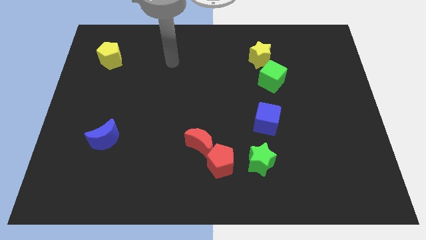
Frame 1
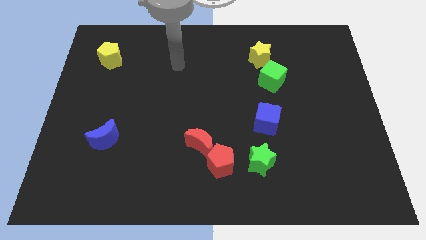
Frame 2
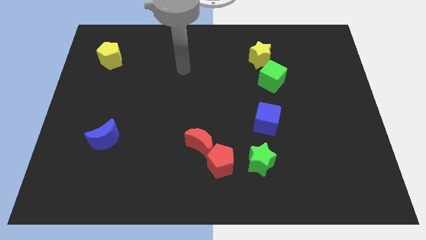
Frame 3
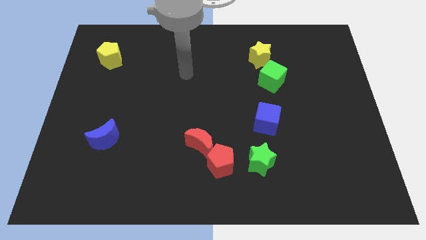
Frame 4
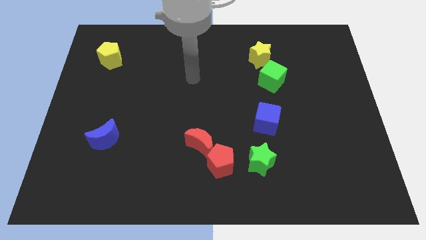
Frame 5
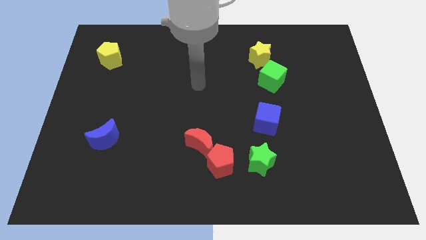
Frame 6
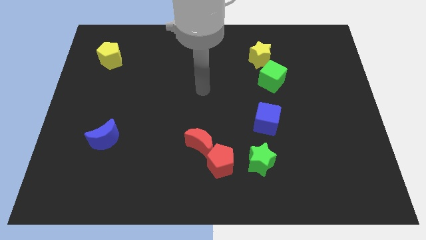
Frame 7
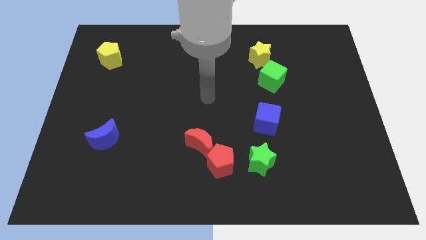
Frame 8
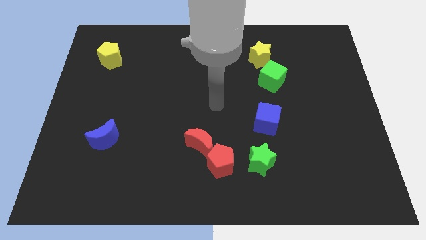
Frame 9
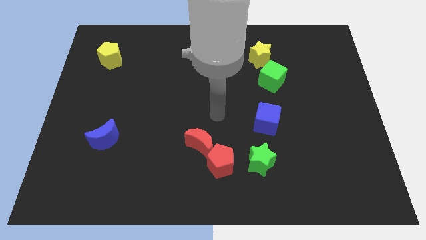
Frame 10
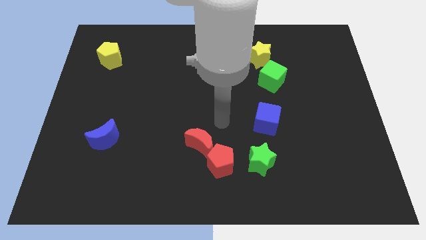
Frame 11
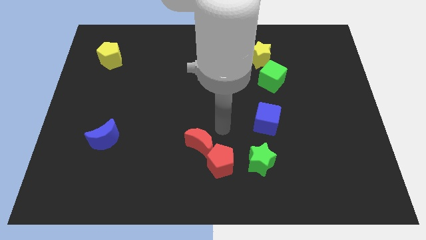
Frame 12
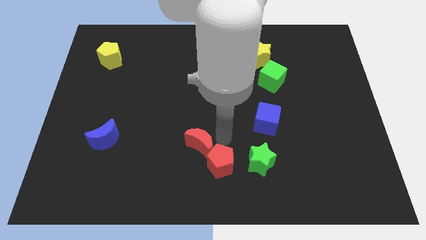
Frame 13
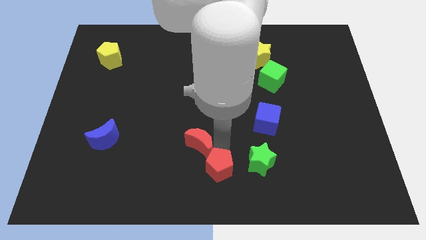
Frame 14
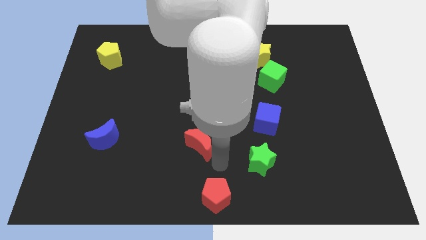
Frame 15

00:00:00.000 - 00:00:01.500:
separate the red moon from the red pentagon

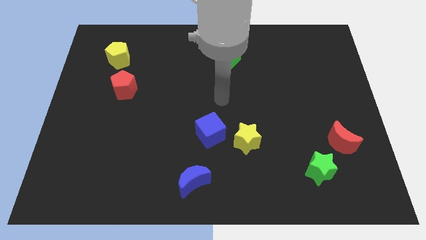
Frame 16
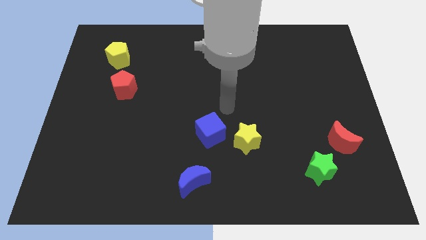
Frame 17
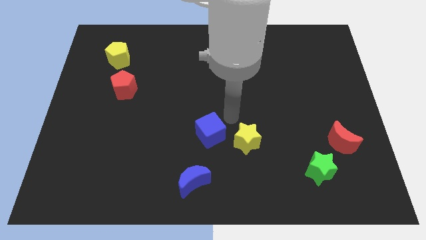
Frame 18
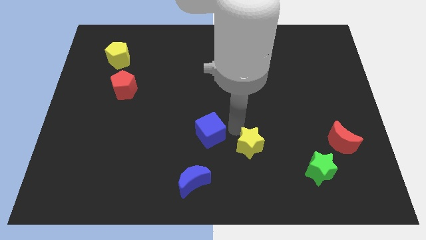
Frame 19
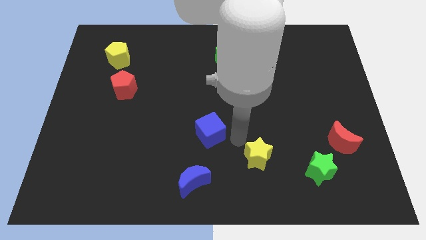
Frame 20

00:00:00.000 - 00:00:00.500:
move the blue cube away from the yellow star

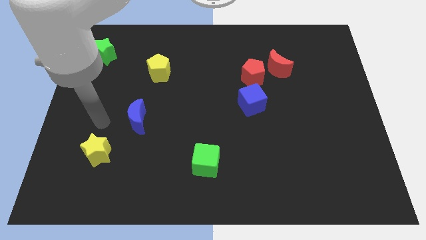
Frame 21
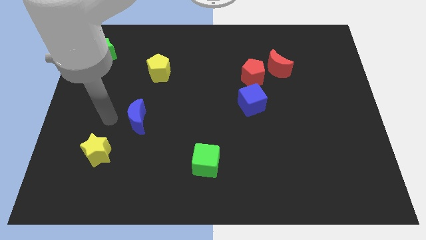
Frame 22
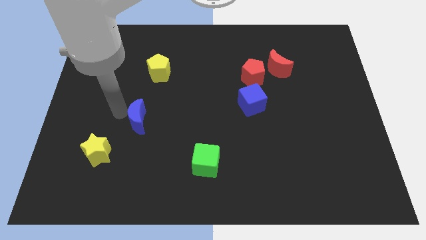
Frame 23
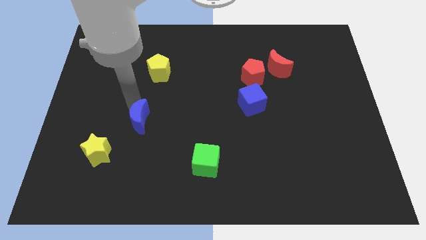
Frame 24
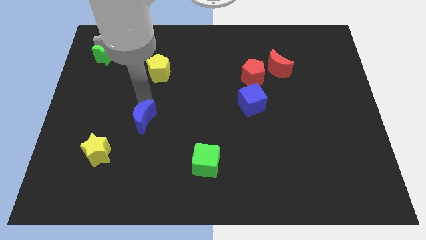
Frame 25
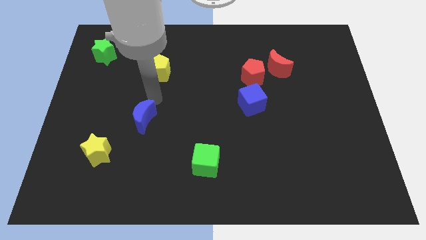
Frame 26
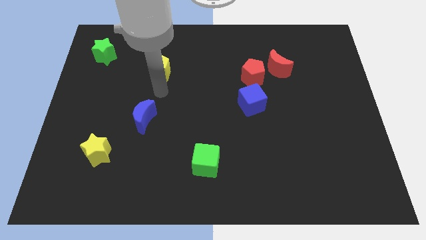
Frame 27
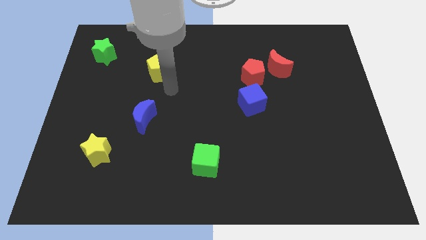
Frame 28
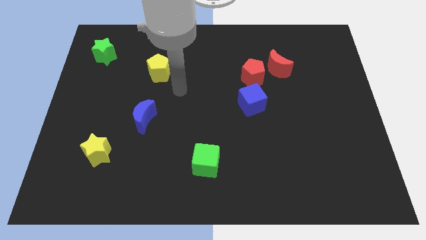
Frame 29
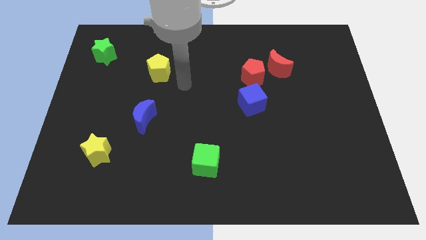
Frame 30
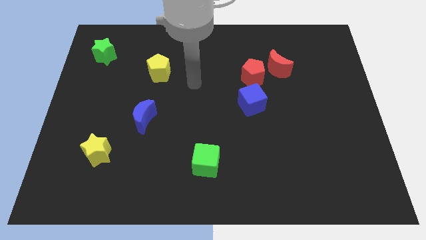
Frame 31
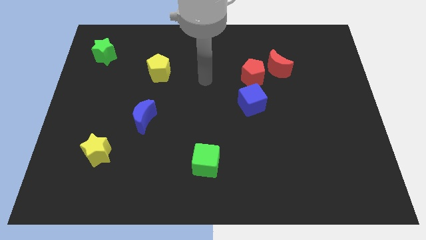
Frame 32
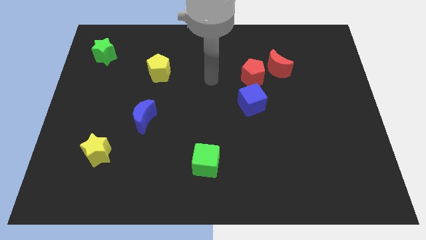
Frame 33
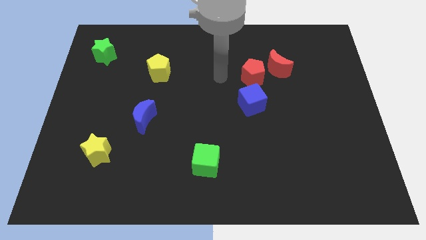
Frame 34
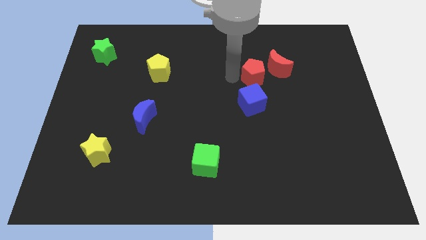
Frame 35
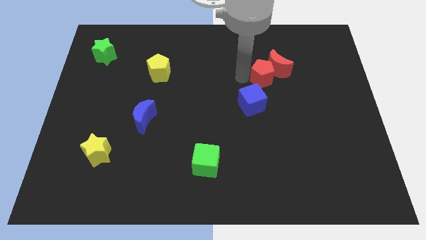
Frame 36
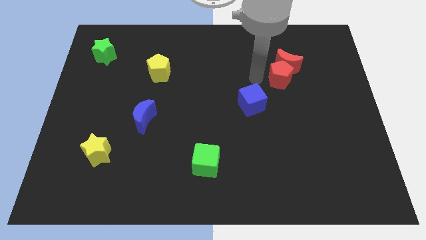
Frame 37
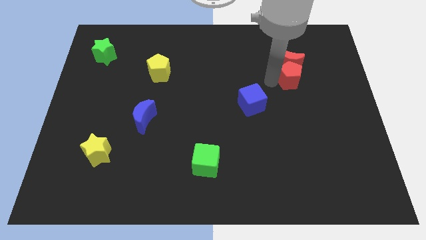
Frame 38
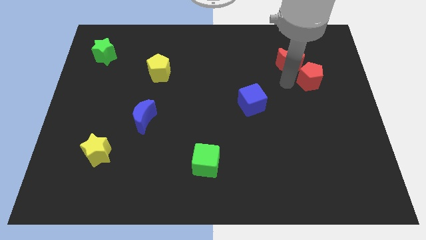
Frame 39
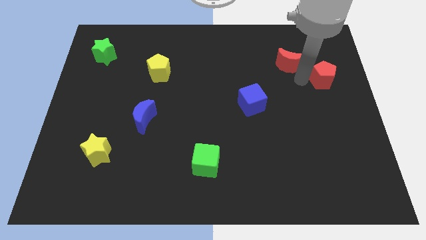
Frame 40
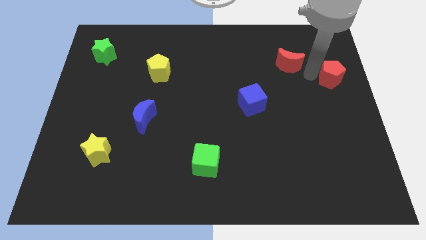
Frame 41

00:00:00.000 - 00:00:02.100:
move the red moon away from the red pentagon

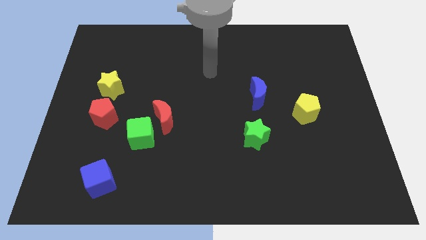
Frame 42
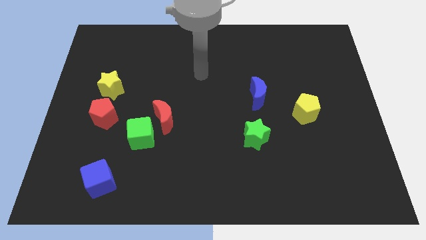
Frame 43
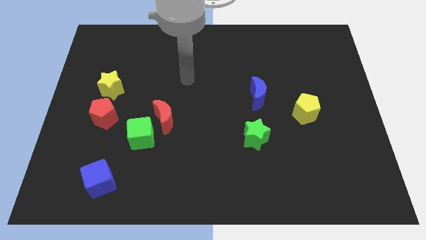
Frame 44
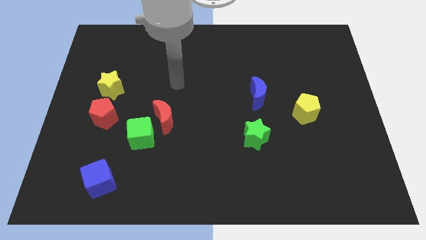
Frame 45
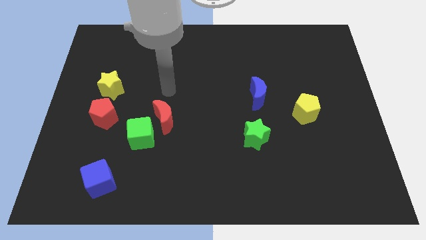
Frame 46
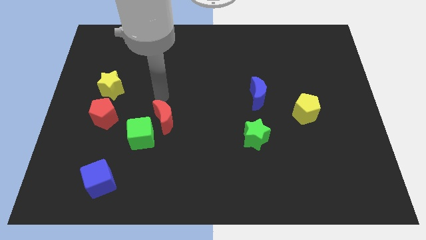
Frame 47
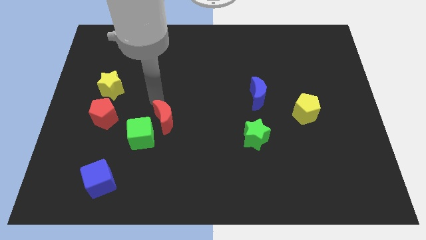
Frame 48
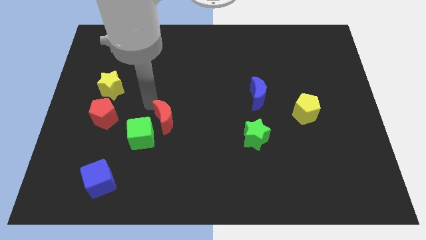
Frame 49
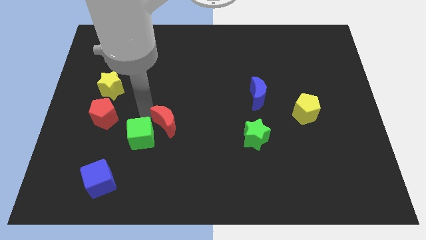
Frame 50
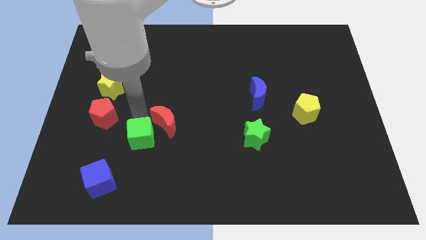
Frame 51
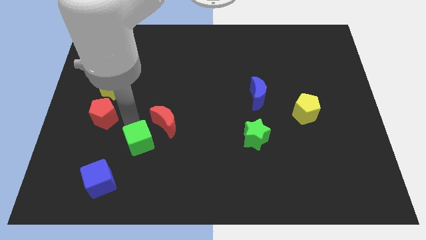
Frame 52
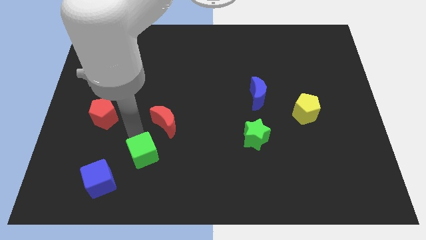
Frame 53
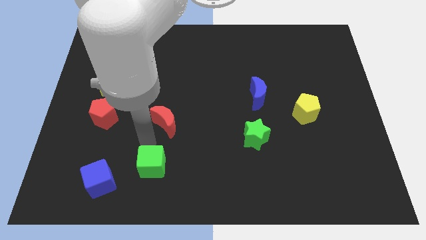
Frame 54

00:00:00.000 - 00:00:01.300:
pull the red moon apart from the green cube

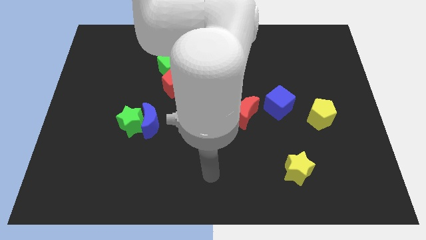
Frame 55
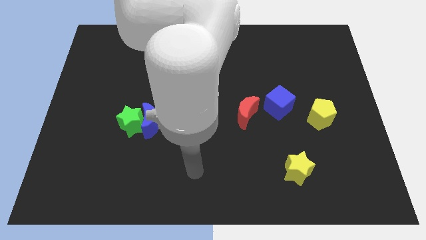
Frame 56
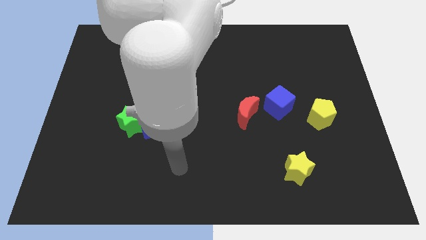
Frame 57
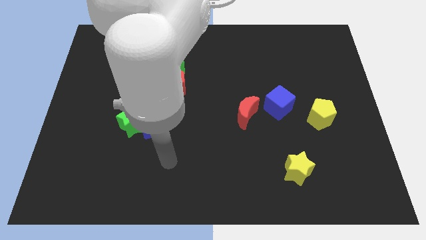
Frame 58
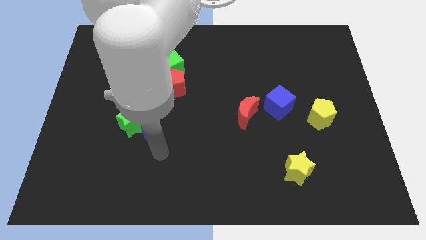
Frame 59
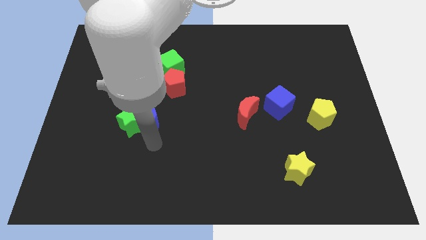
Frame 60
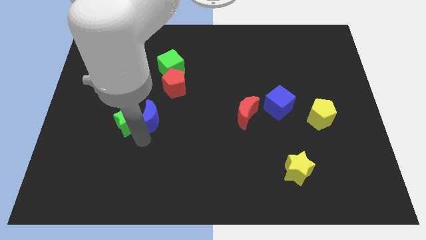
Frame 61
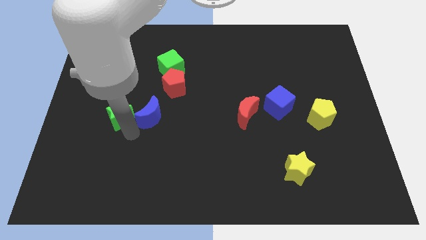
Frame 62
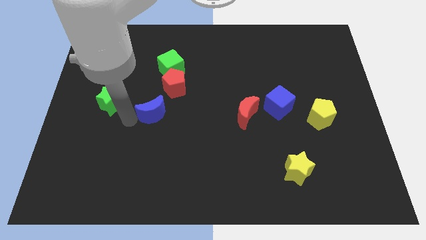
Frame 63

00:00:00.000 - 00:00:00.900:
separate the blue moon from the green star

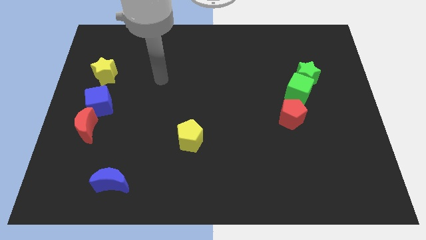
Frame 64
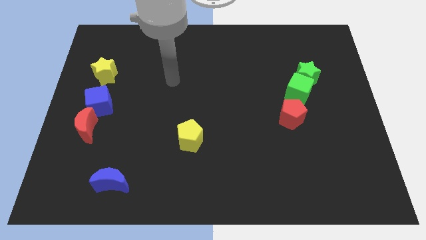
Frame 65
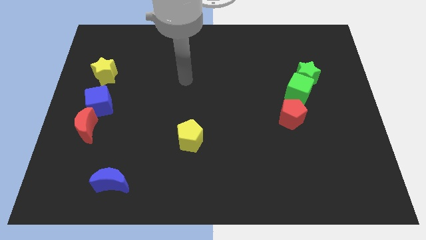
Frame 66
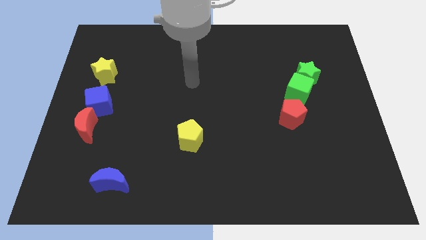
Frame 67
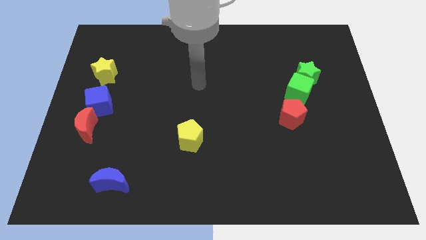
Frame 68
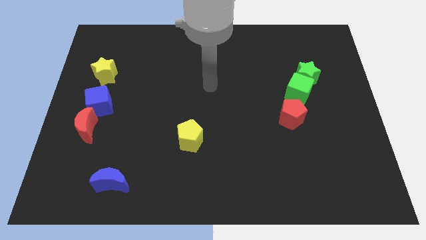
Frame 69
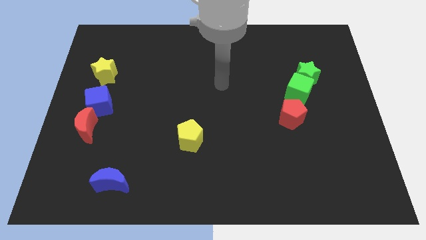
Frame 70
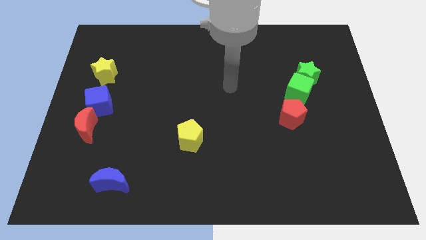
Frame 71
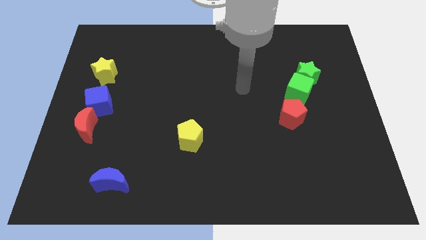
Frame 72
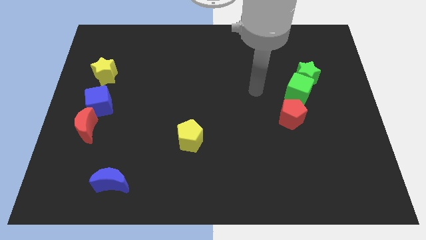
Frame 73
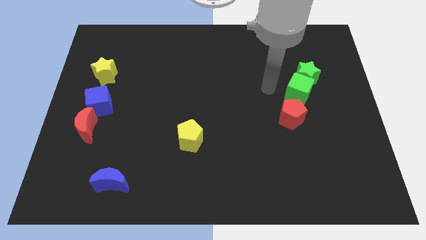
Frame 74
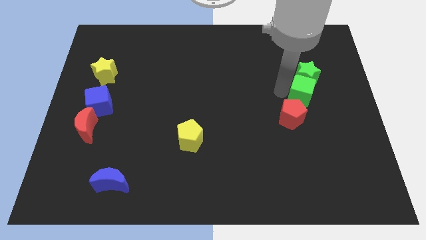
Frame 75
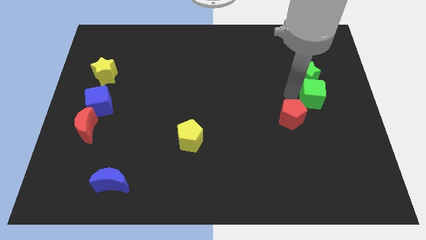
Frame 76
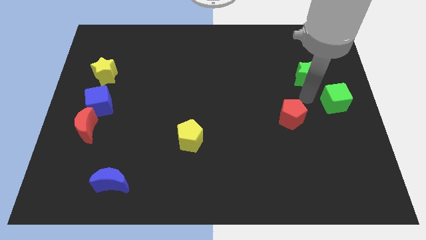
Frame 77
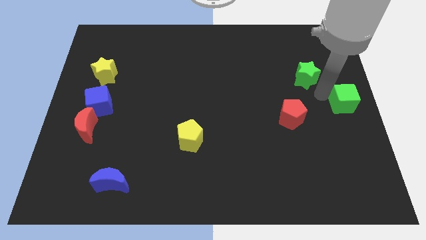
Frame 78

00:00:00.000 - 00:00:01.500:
move the green star away from the green cube

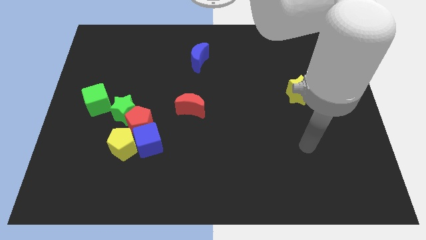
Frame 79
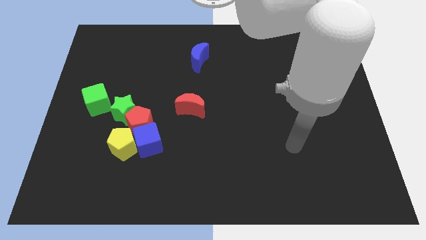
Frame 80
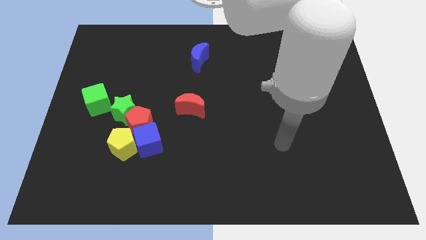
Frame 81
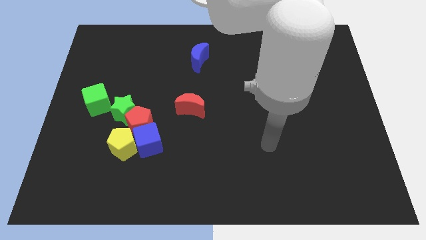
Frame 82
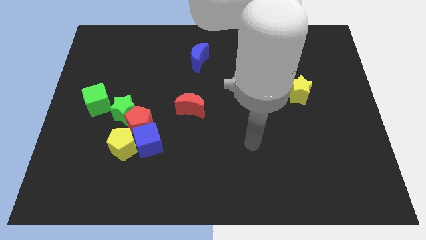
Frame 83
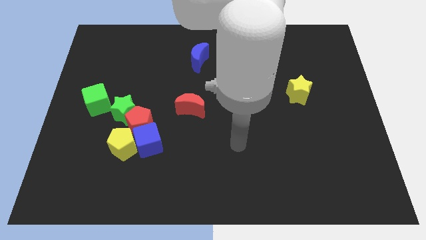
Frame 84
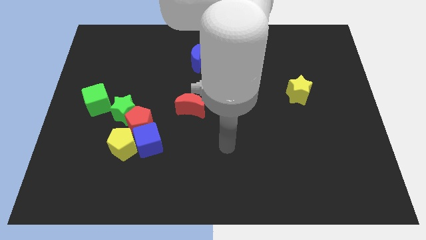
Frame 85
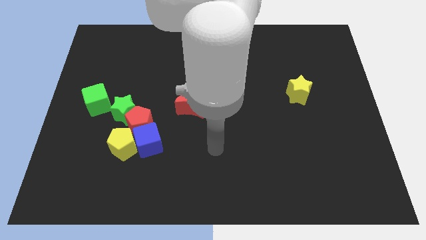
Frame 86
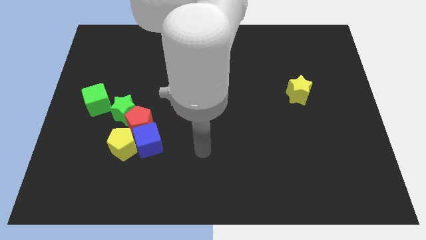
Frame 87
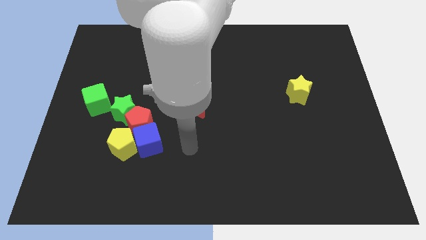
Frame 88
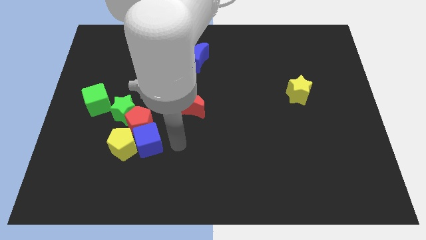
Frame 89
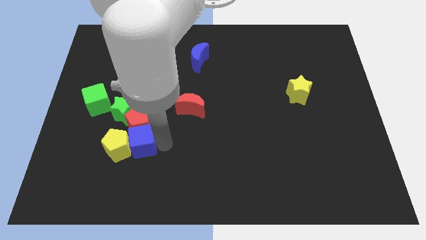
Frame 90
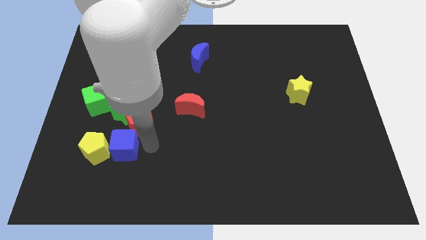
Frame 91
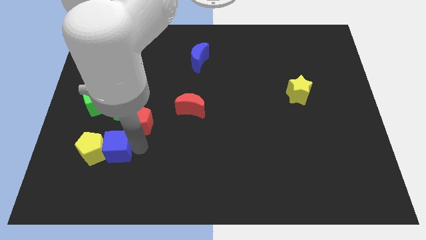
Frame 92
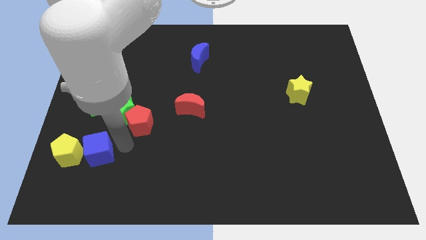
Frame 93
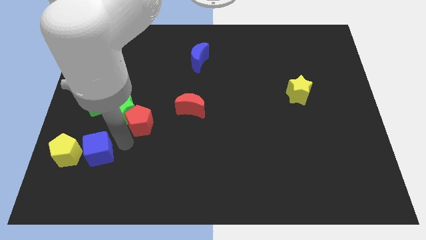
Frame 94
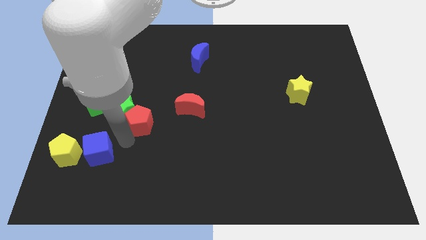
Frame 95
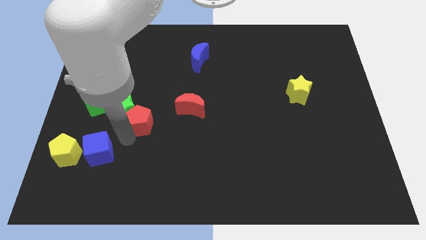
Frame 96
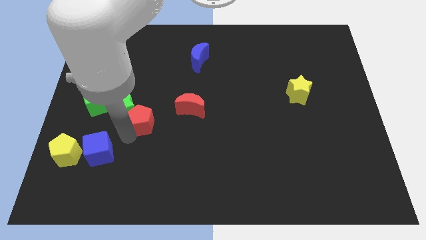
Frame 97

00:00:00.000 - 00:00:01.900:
separate the red pentagon from the green star, blue cube, and yellow pentagon
